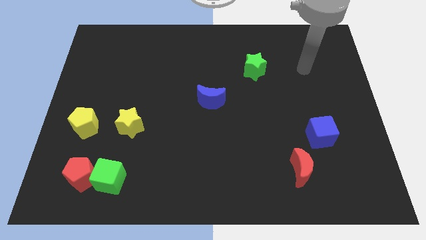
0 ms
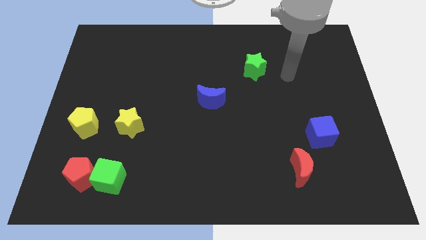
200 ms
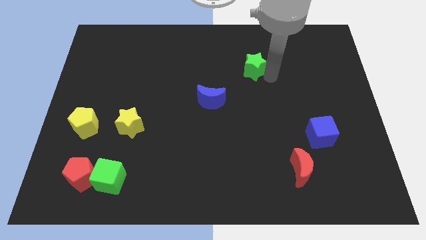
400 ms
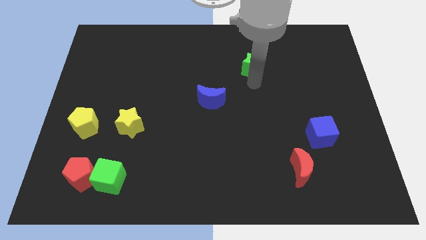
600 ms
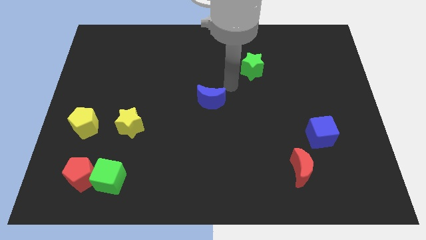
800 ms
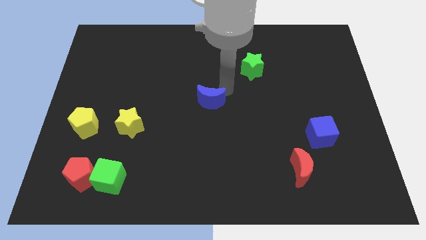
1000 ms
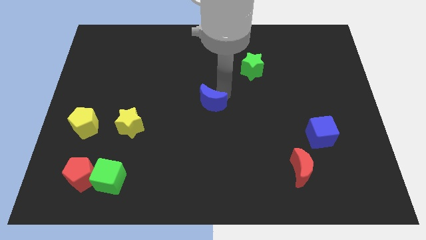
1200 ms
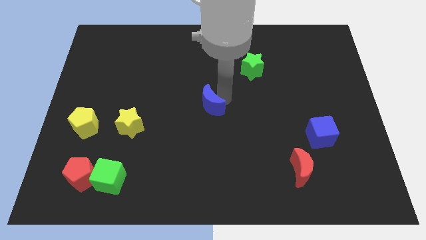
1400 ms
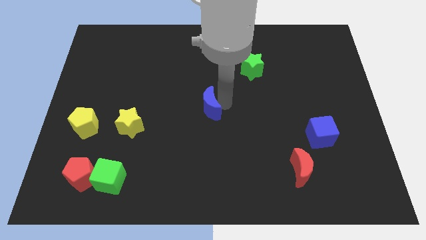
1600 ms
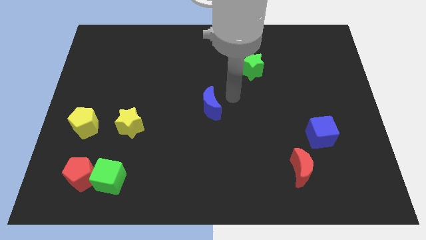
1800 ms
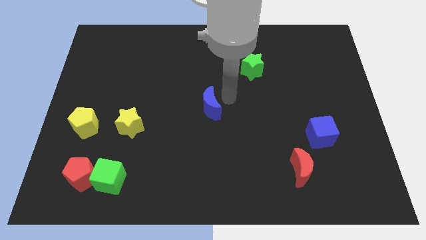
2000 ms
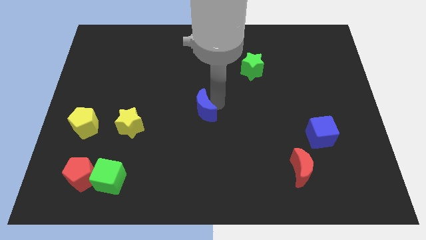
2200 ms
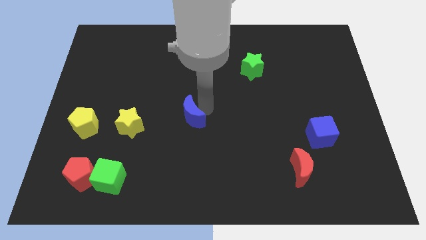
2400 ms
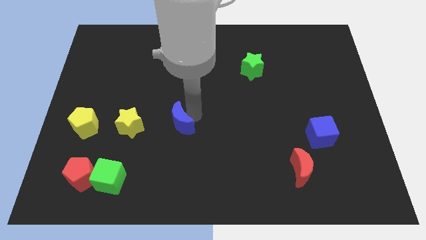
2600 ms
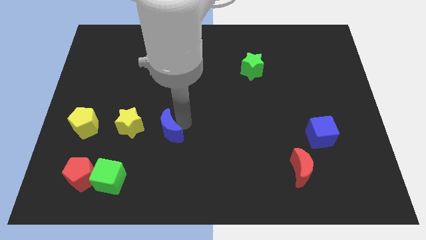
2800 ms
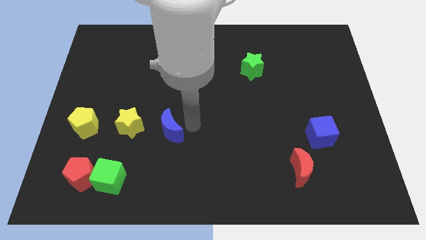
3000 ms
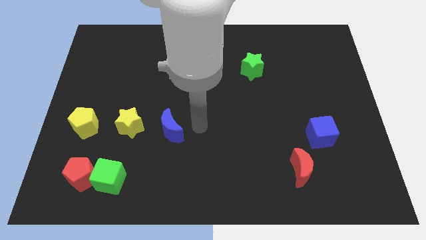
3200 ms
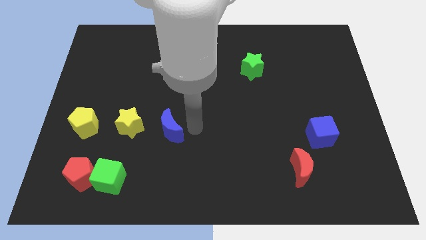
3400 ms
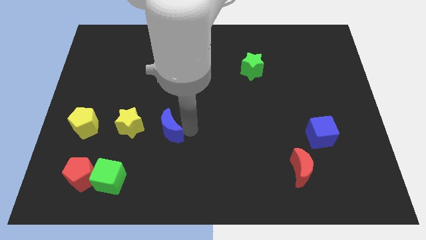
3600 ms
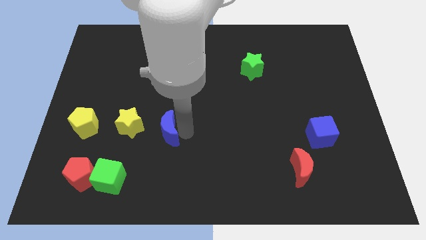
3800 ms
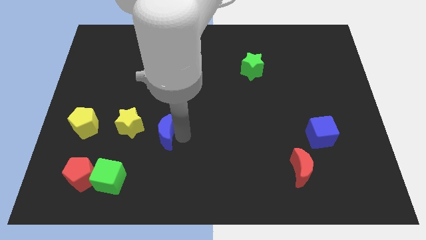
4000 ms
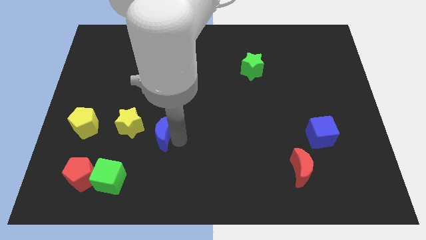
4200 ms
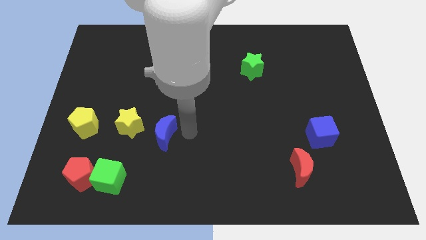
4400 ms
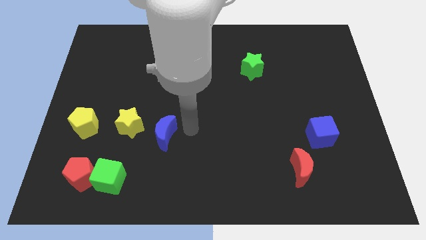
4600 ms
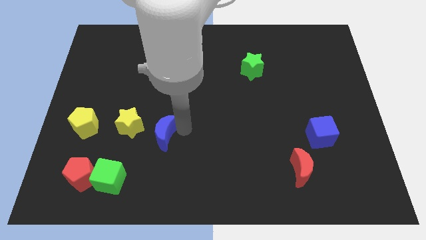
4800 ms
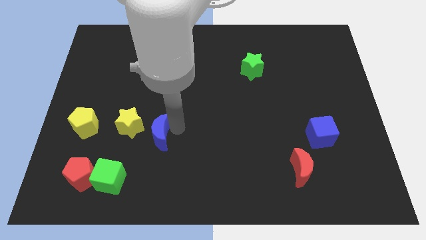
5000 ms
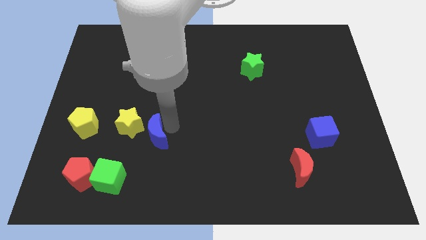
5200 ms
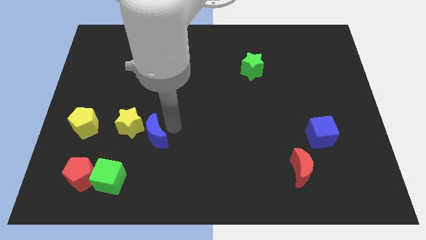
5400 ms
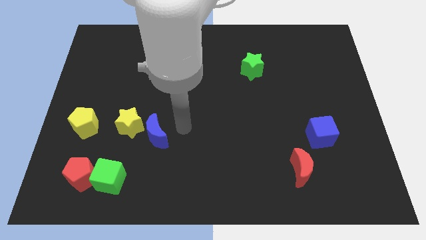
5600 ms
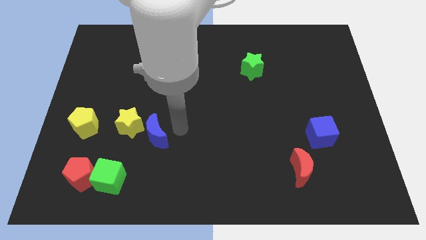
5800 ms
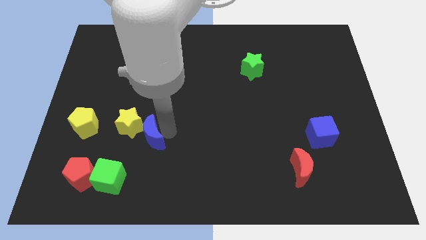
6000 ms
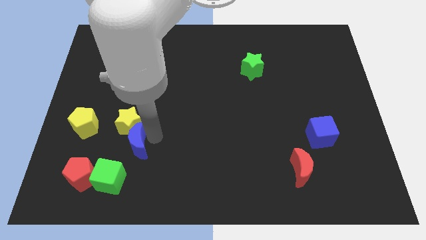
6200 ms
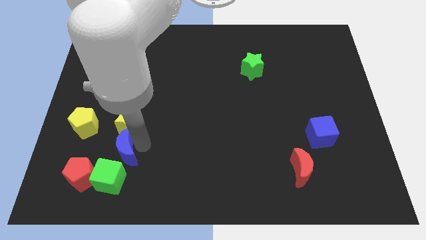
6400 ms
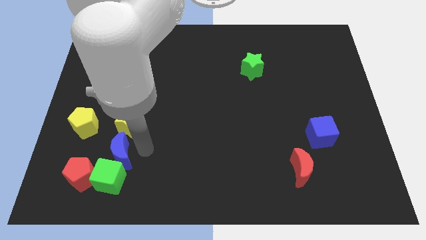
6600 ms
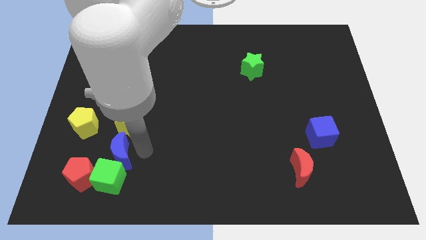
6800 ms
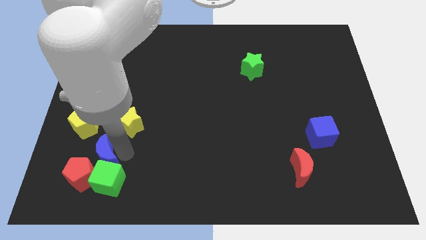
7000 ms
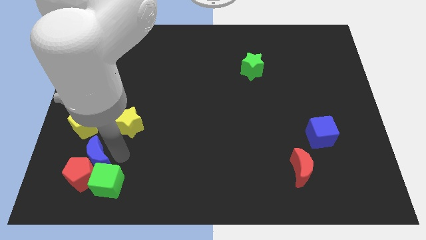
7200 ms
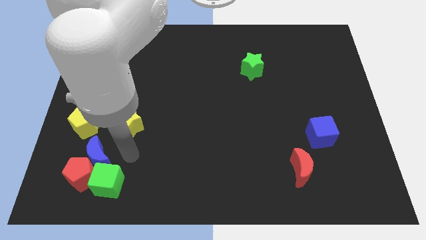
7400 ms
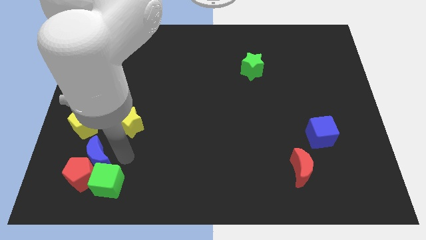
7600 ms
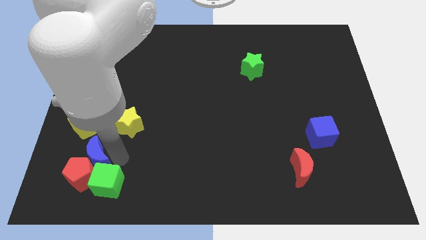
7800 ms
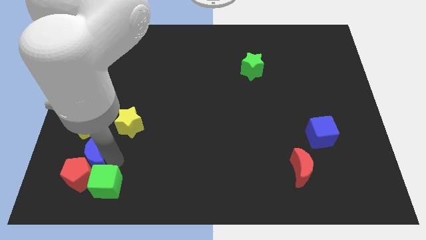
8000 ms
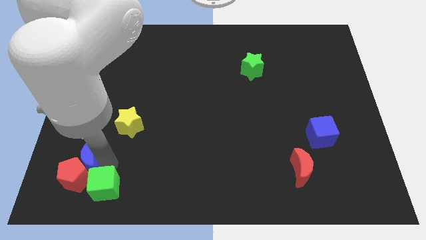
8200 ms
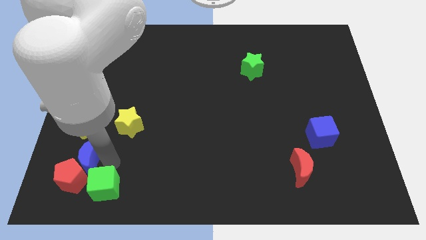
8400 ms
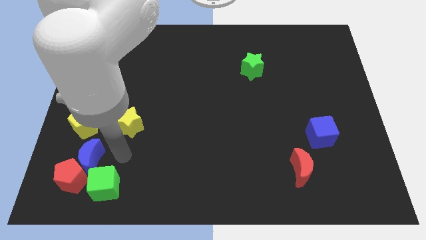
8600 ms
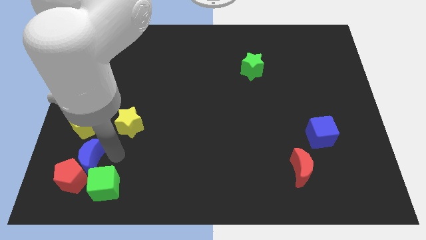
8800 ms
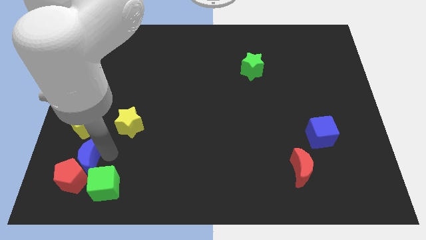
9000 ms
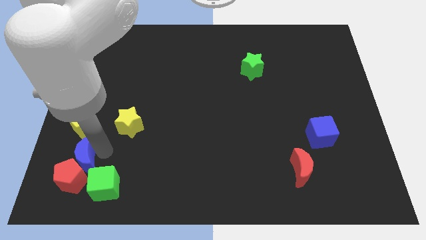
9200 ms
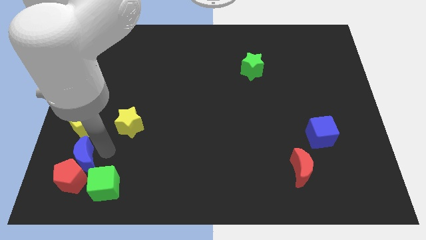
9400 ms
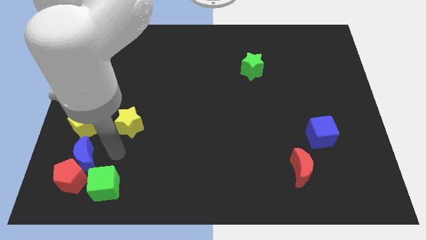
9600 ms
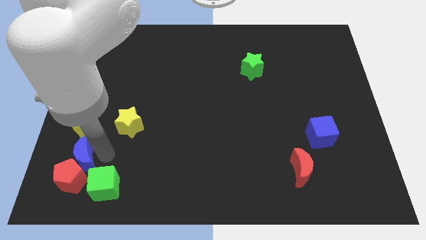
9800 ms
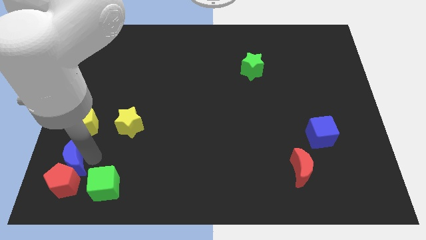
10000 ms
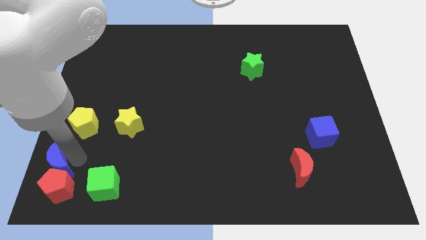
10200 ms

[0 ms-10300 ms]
slide the blue moon to the bottom left

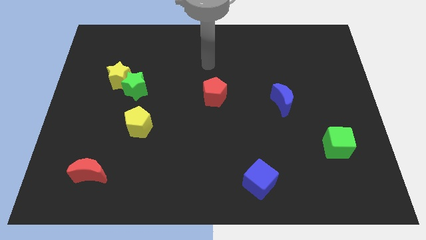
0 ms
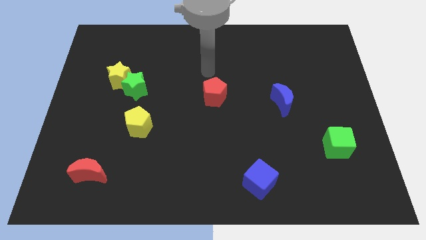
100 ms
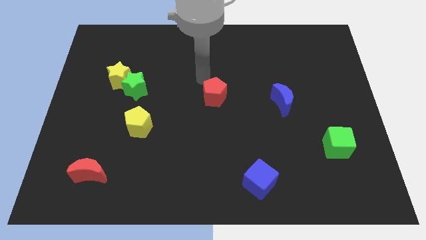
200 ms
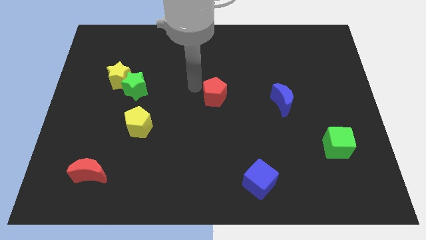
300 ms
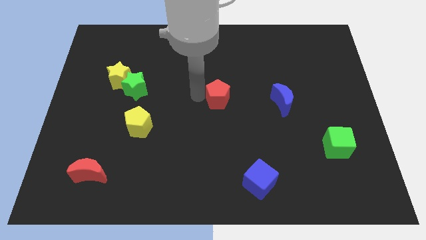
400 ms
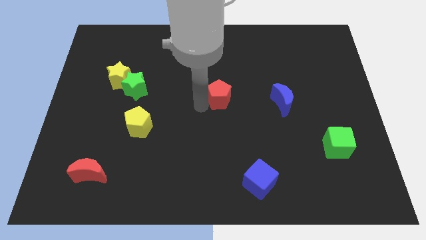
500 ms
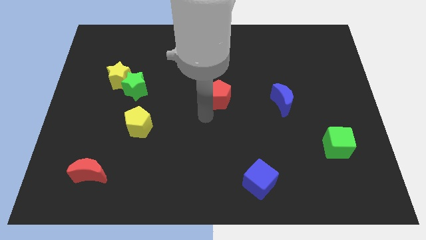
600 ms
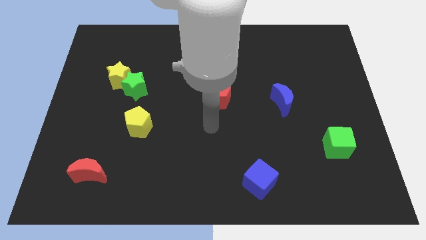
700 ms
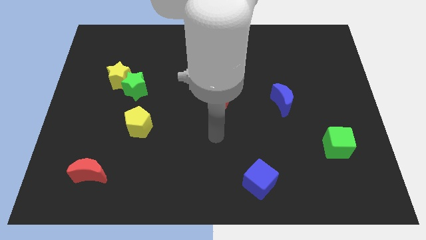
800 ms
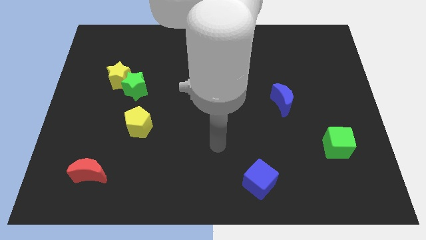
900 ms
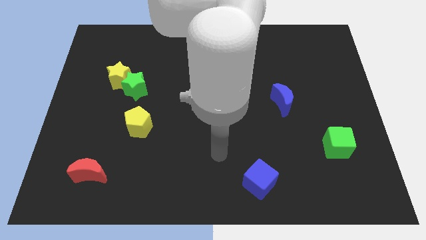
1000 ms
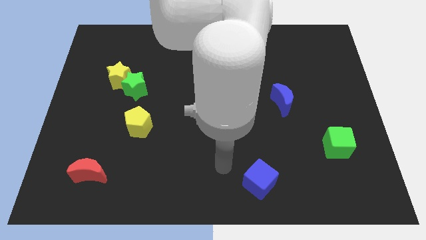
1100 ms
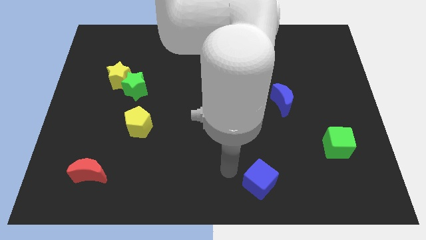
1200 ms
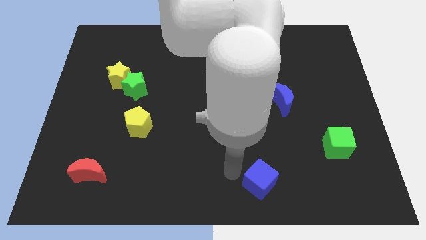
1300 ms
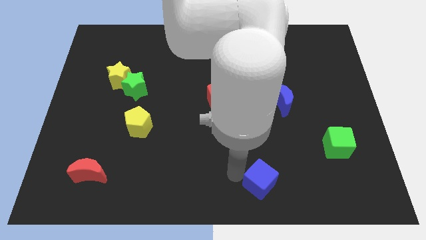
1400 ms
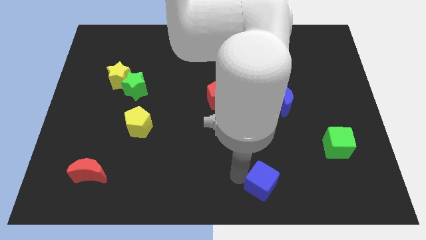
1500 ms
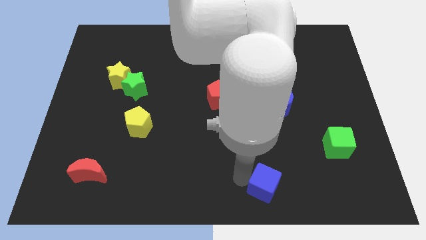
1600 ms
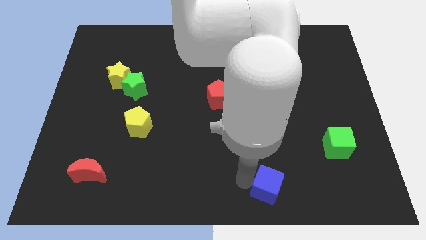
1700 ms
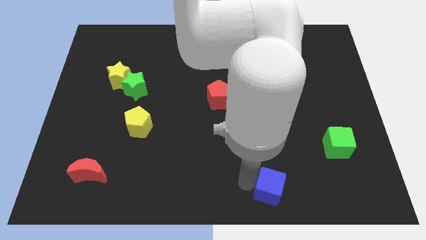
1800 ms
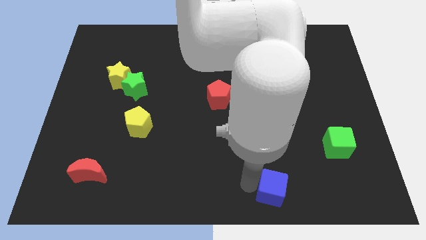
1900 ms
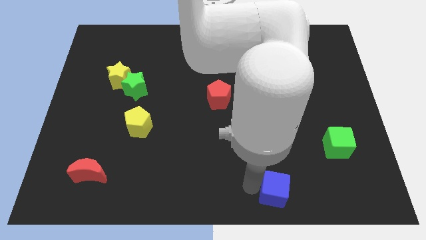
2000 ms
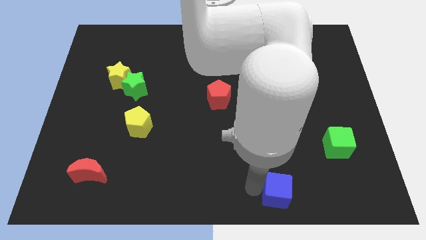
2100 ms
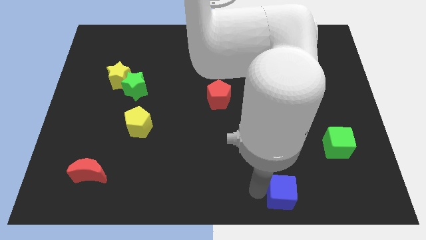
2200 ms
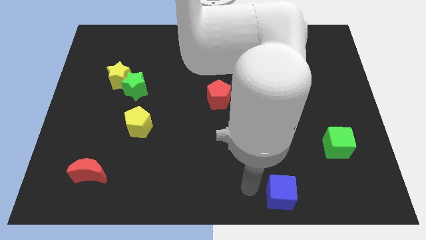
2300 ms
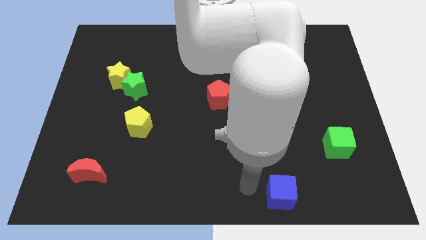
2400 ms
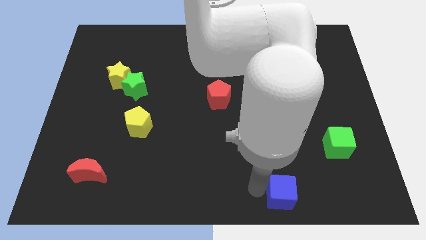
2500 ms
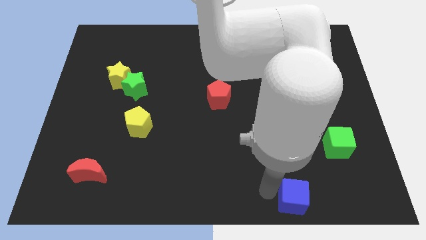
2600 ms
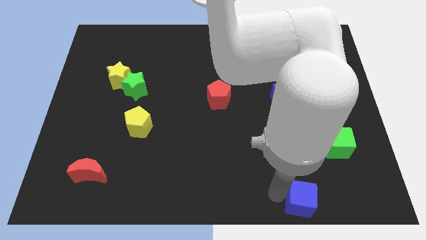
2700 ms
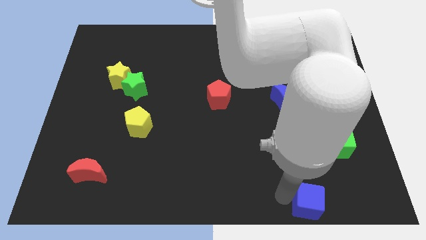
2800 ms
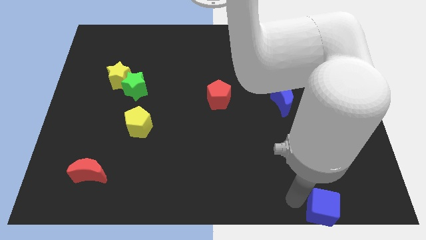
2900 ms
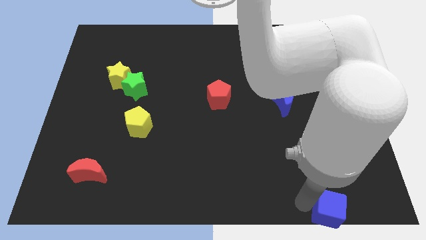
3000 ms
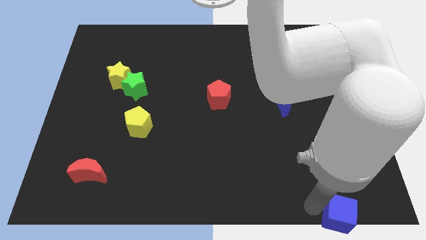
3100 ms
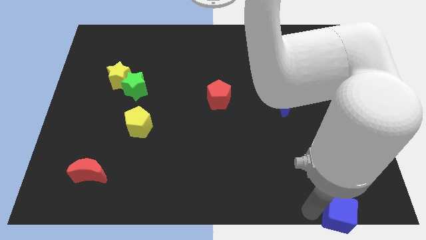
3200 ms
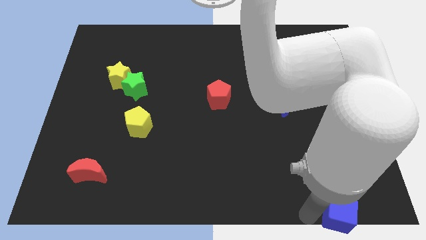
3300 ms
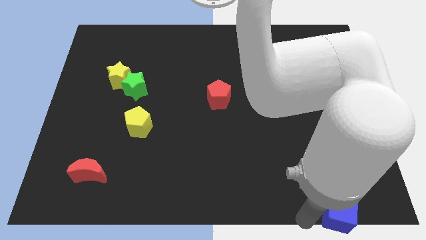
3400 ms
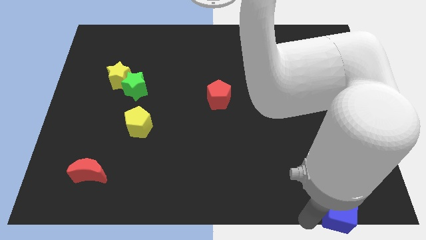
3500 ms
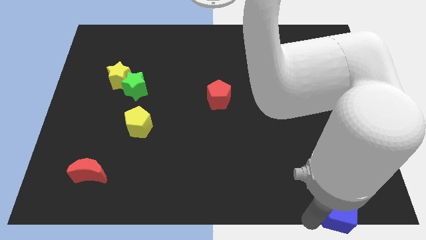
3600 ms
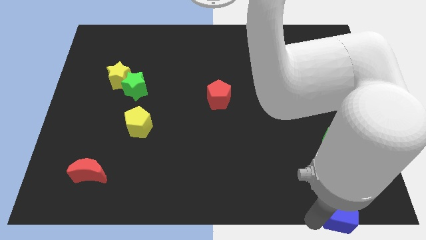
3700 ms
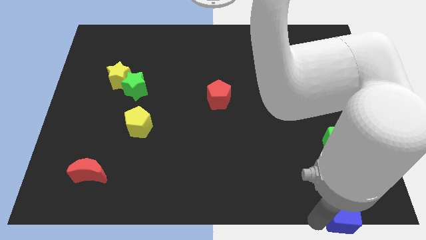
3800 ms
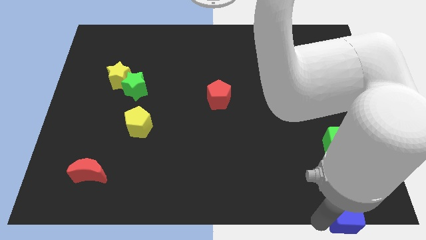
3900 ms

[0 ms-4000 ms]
push the blue cube to the bottom right of the board
